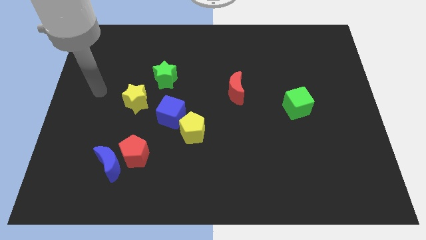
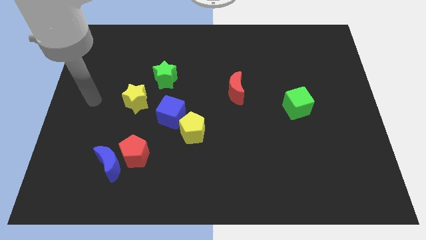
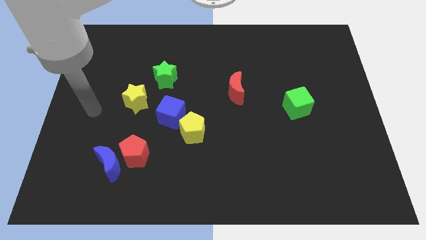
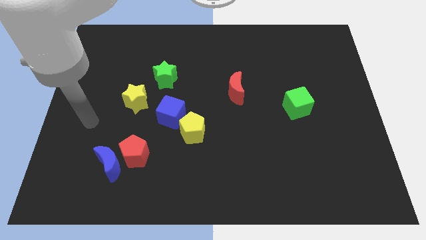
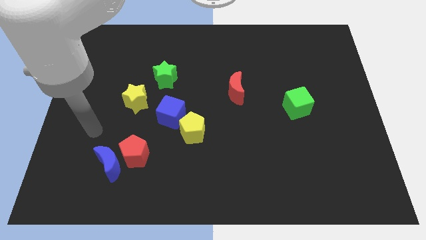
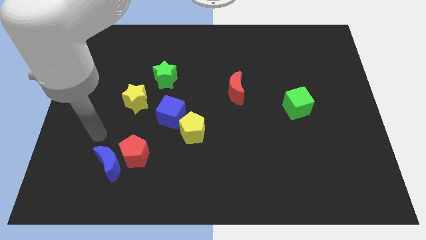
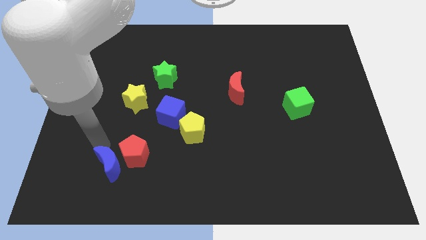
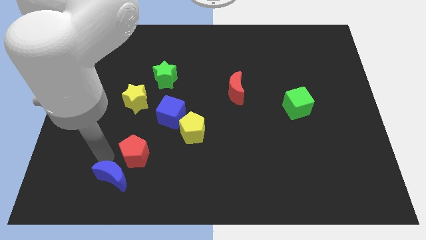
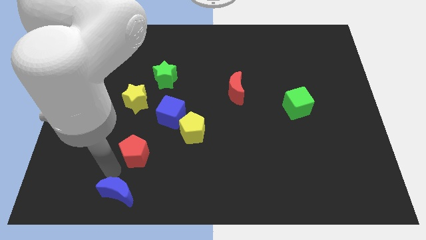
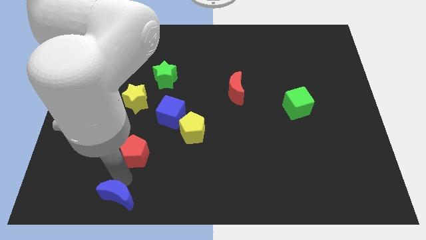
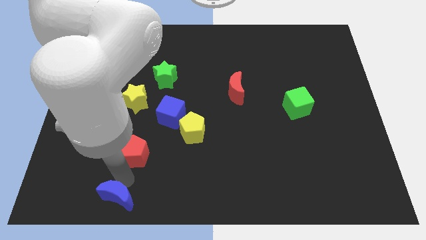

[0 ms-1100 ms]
pull the red pentagon apart from the blue moon

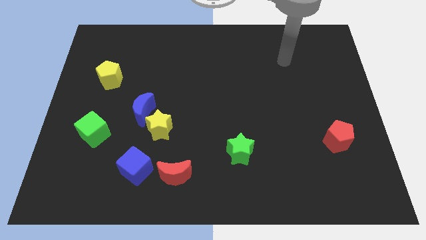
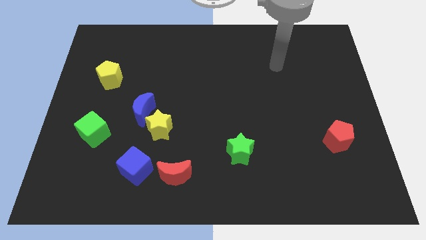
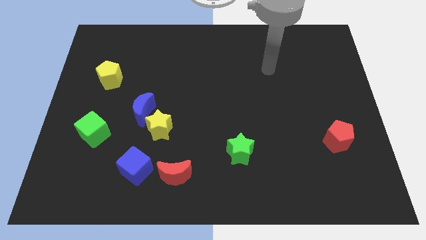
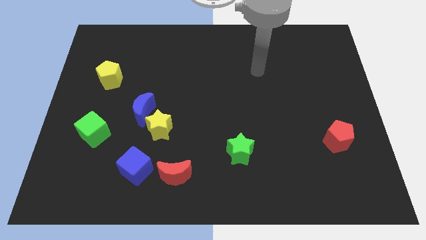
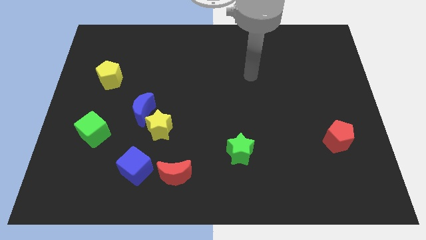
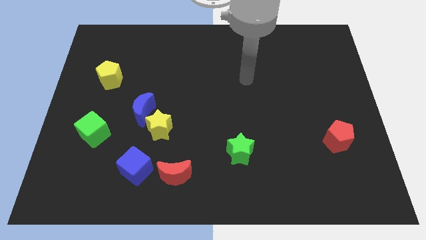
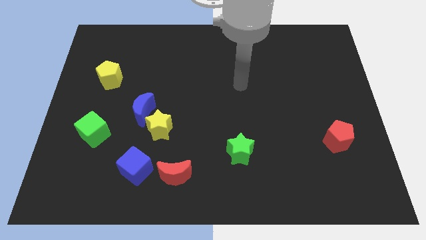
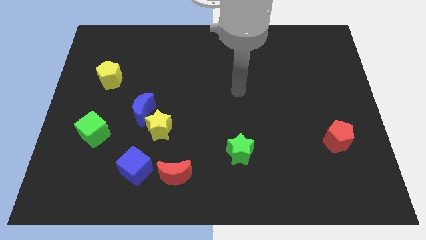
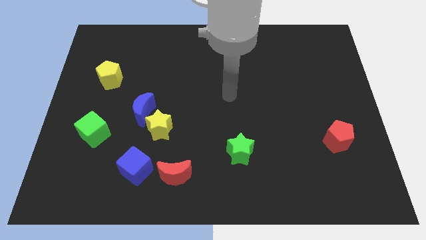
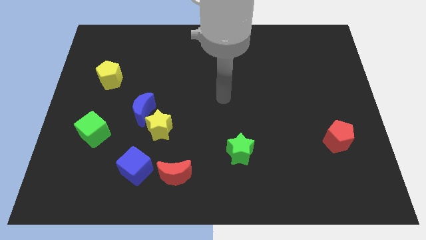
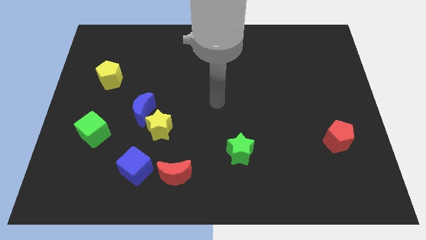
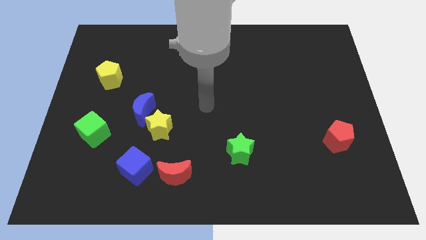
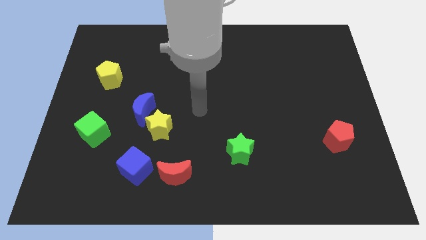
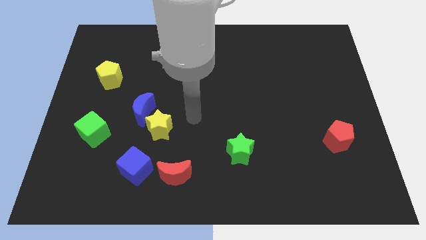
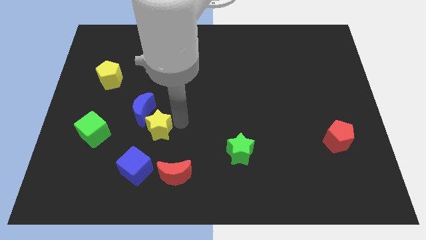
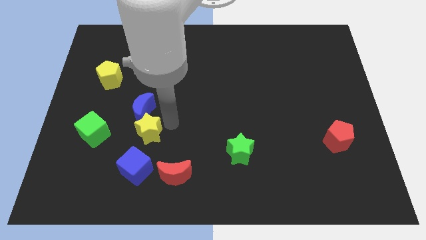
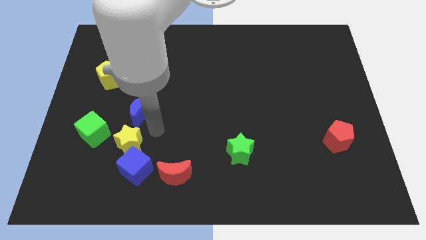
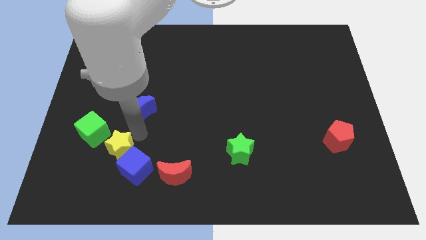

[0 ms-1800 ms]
pull the blue moon apart from the yellow star

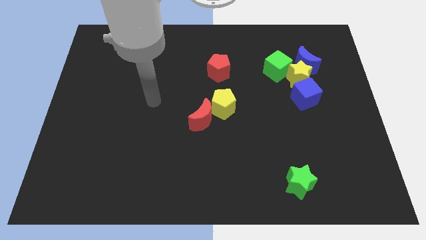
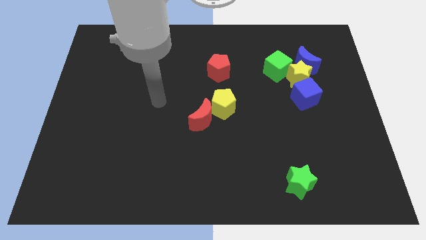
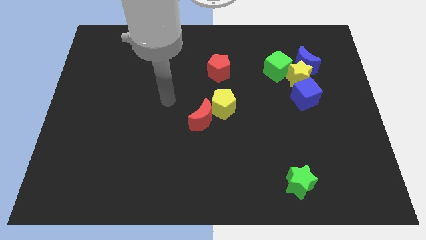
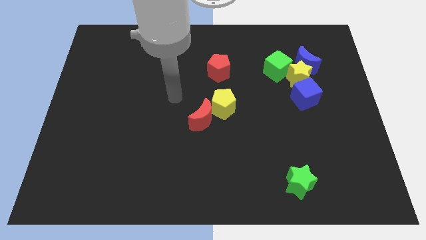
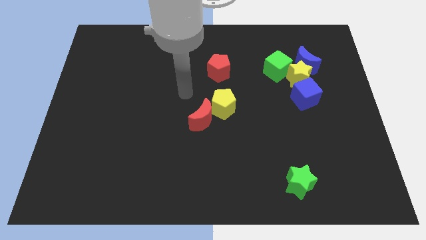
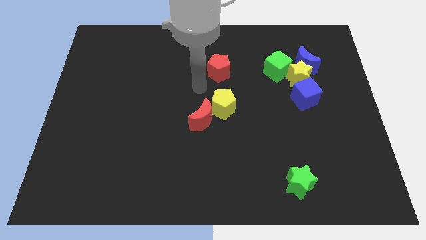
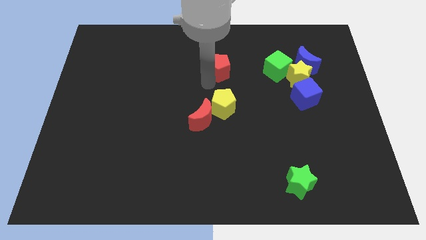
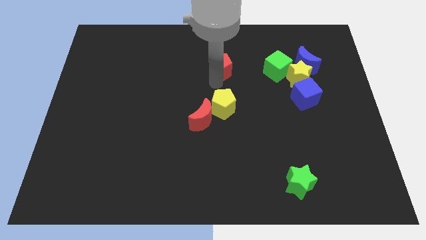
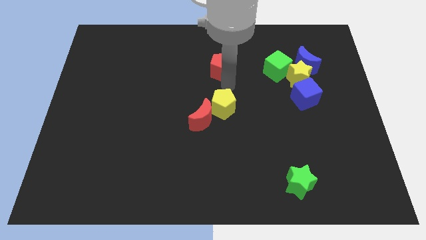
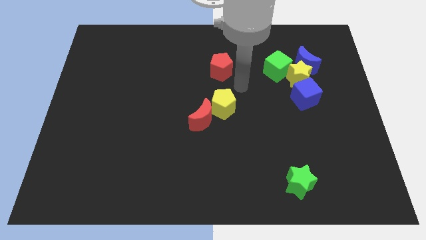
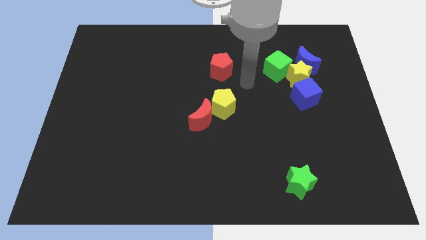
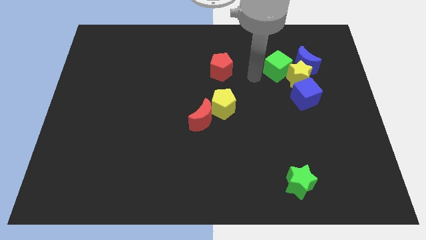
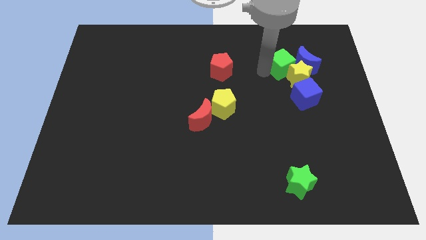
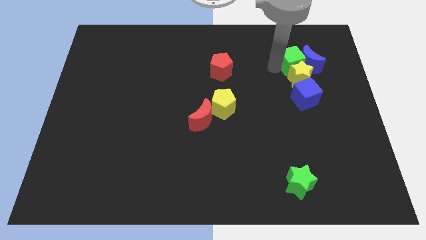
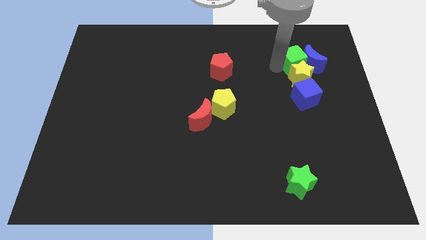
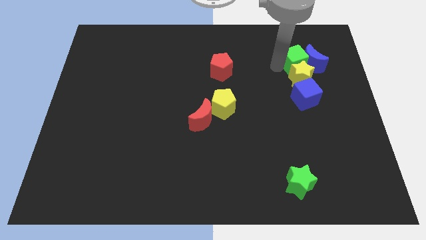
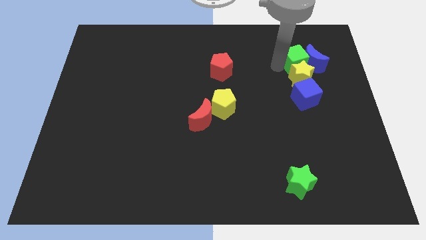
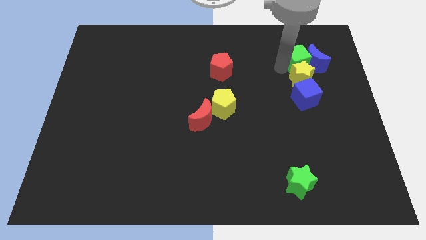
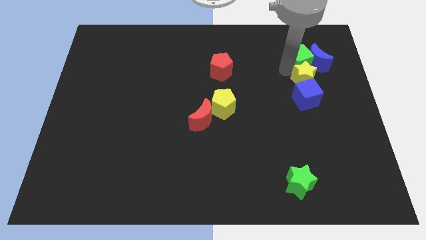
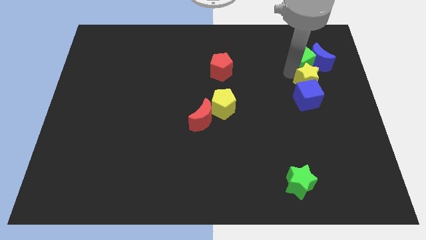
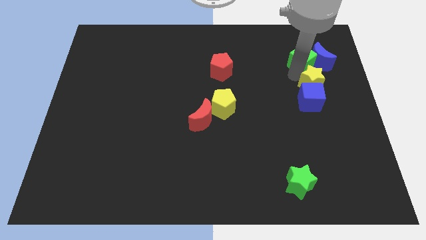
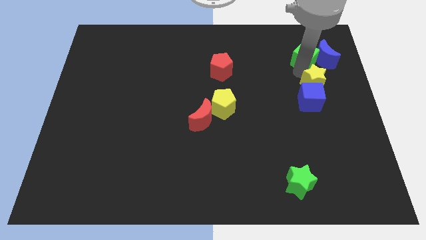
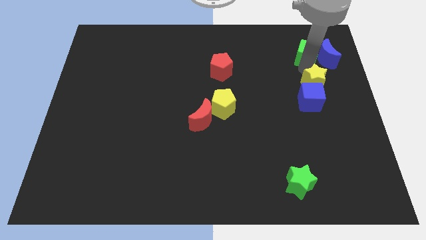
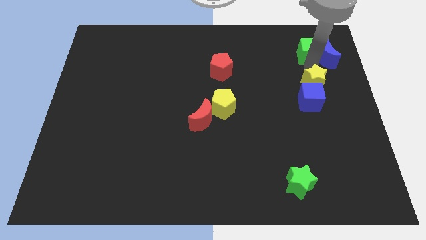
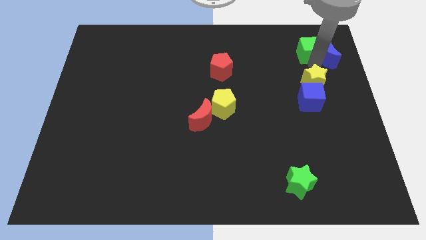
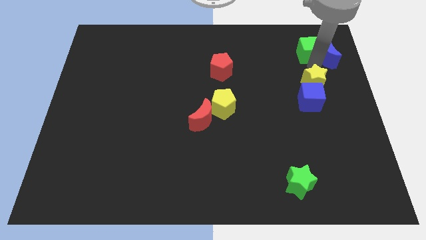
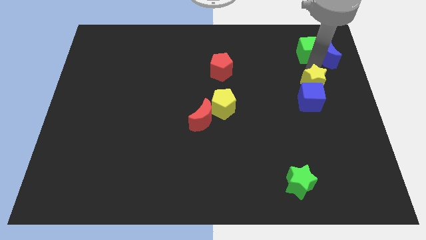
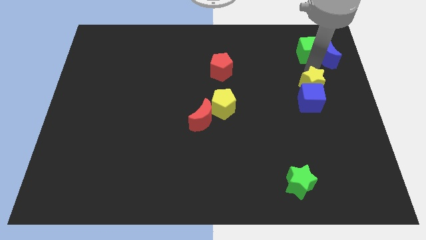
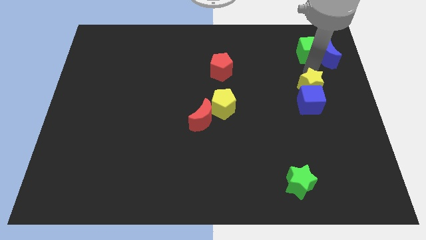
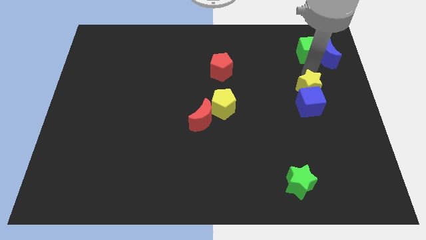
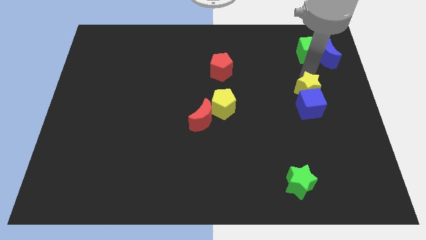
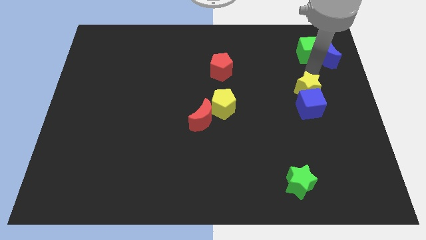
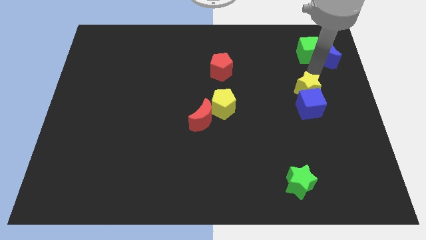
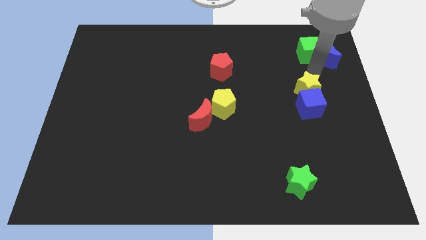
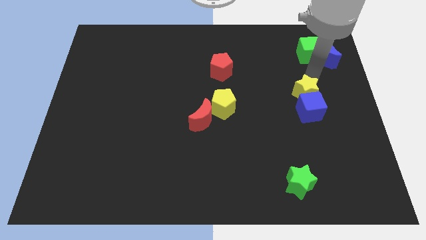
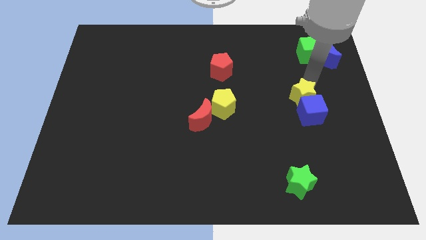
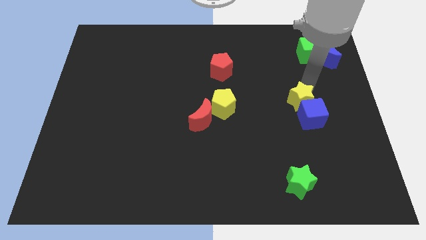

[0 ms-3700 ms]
move the yellow star away from the blue moon, green cube, and blue cube

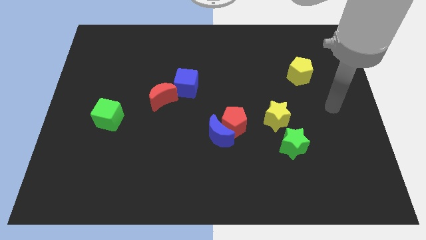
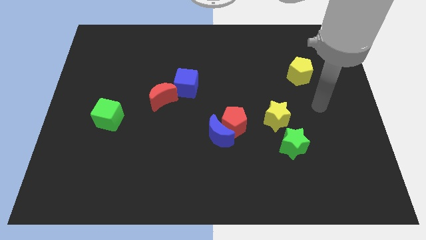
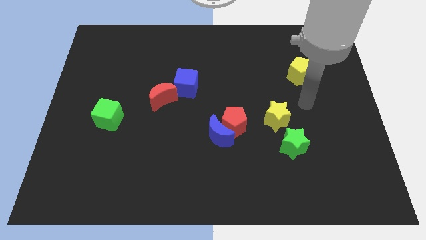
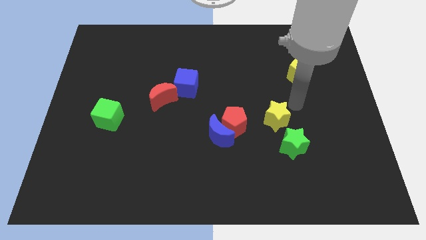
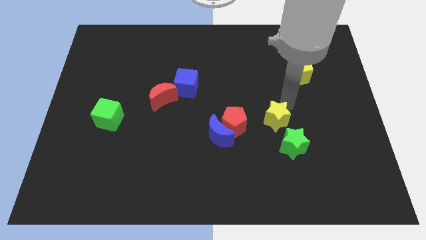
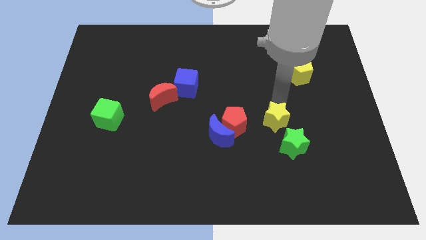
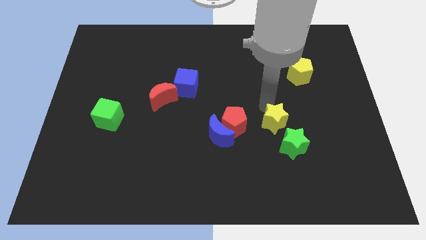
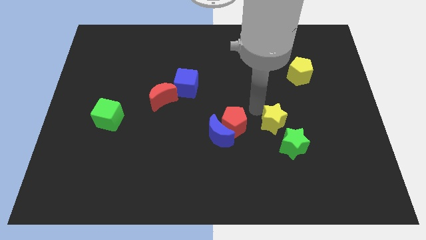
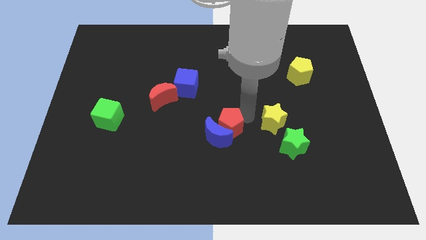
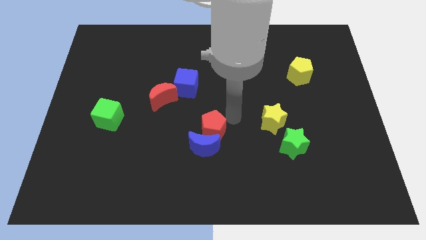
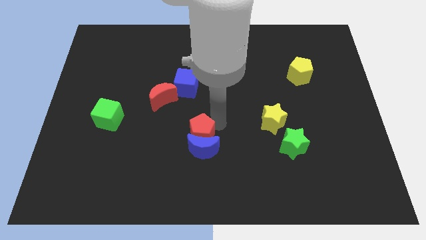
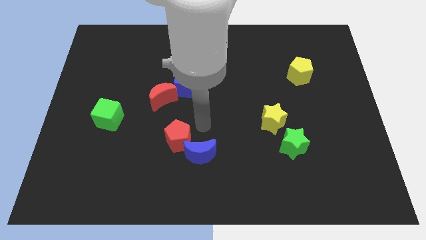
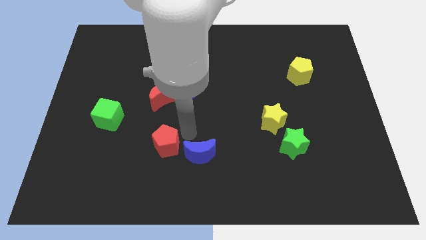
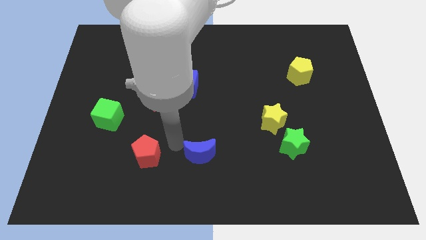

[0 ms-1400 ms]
separate the blue moon from the red pentagon

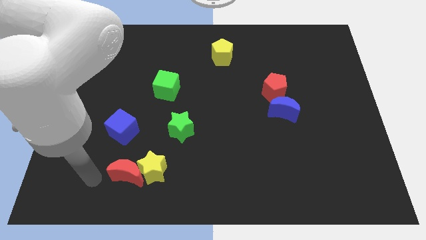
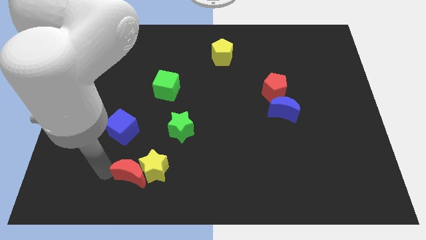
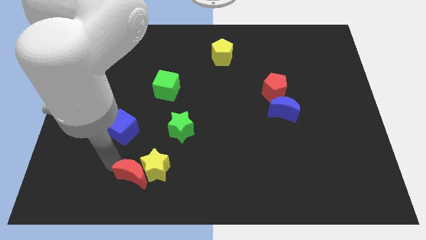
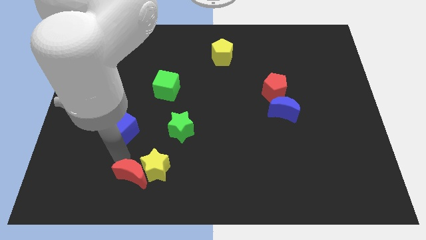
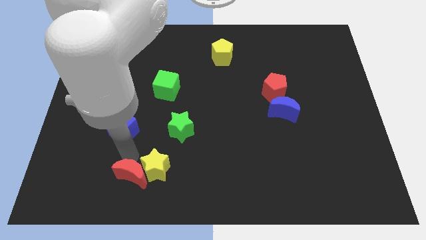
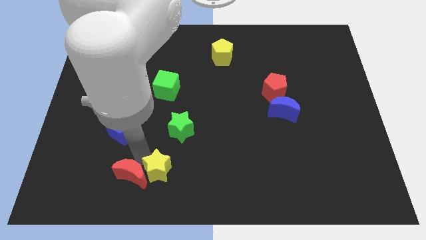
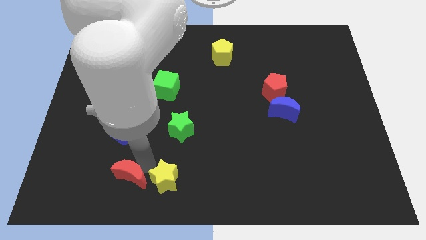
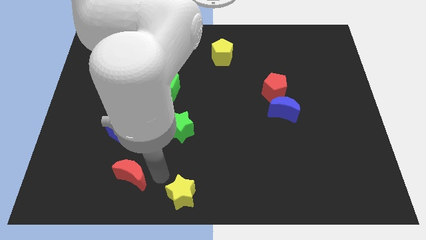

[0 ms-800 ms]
pull the red moon apart from the yellow star

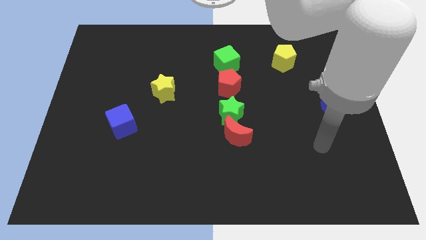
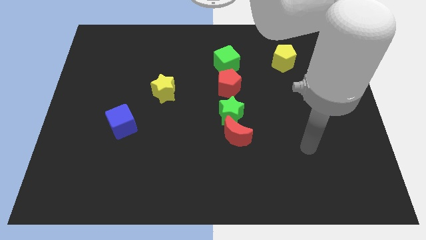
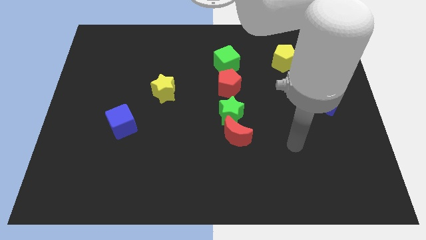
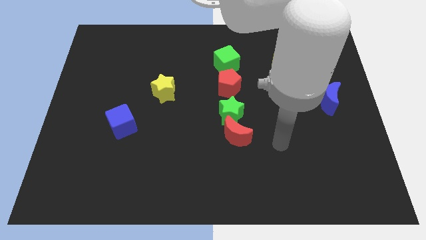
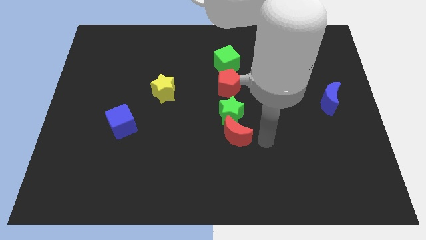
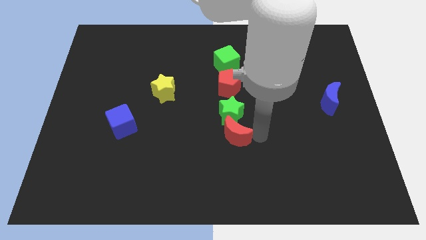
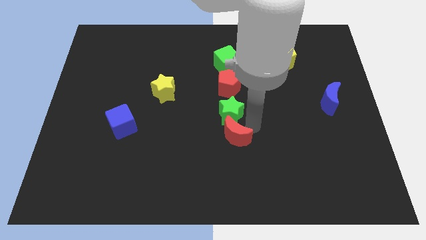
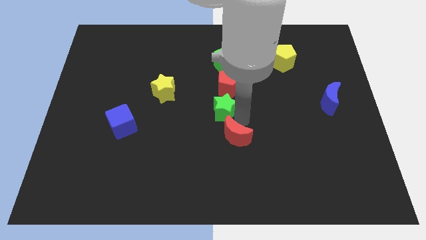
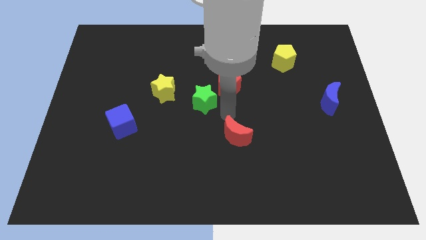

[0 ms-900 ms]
pull the red moon apart from the green star
